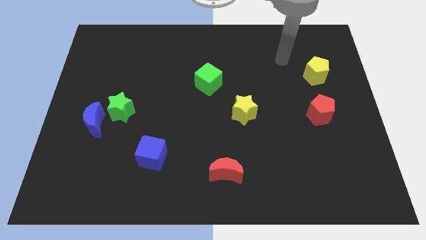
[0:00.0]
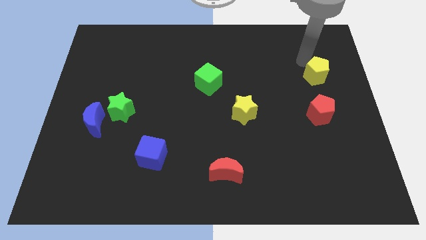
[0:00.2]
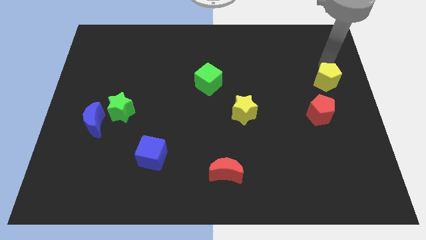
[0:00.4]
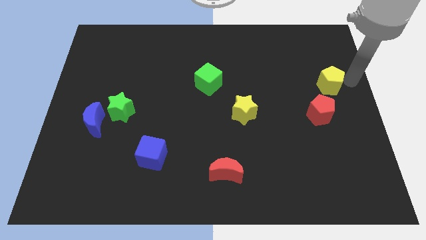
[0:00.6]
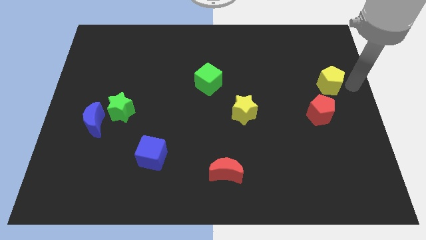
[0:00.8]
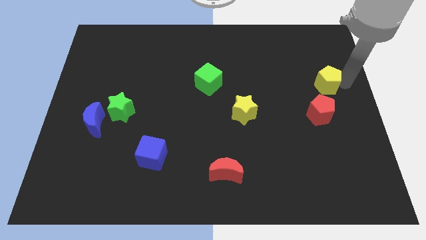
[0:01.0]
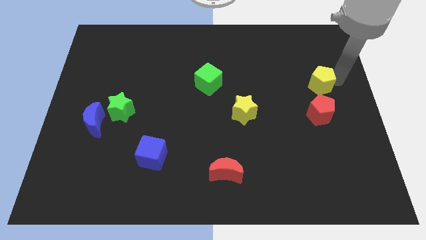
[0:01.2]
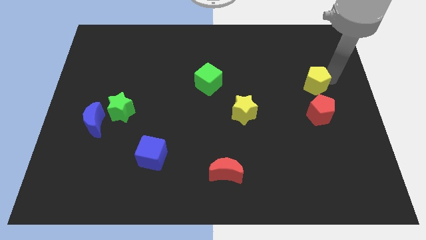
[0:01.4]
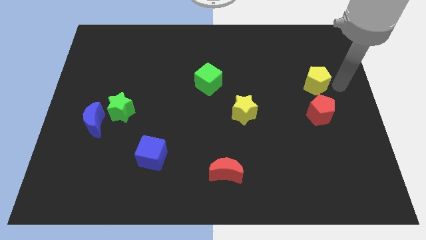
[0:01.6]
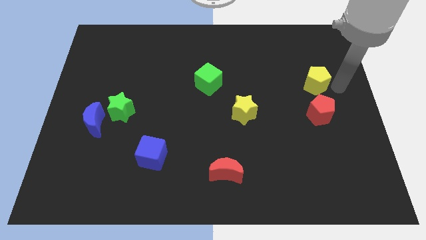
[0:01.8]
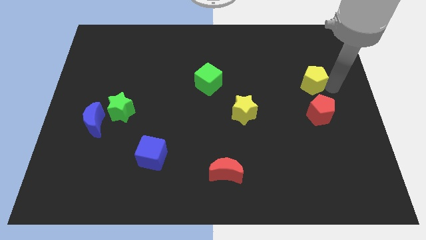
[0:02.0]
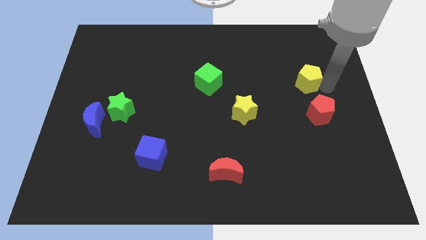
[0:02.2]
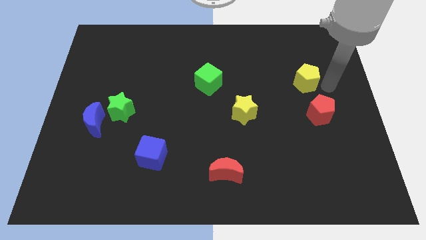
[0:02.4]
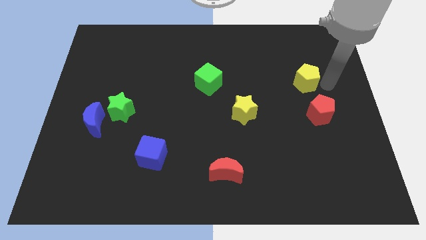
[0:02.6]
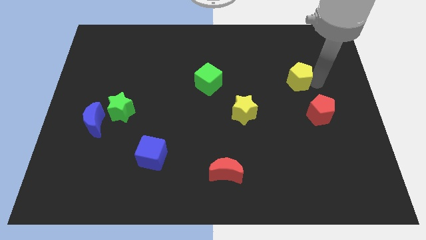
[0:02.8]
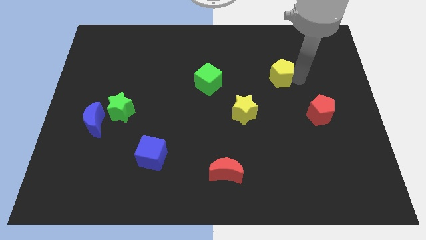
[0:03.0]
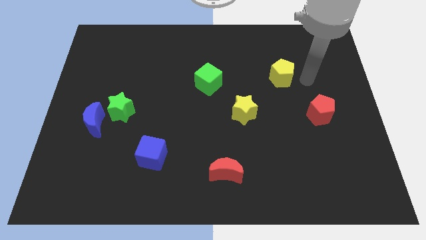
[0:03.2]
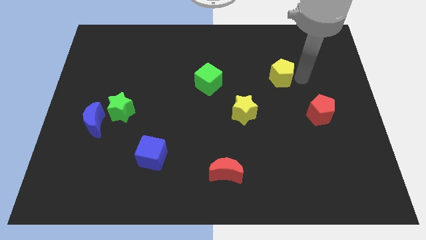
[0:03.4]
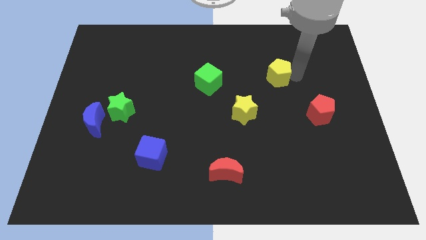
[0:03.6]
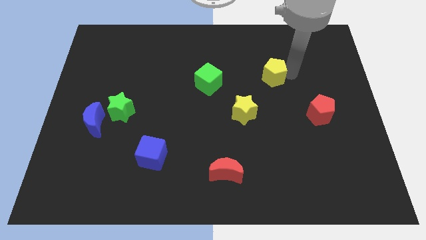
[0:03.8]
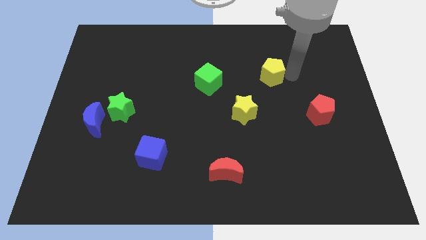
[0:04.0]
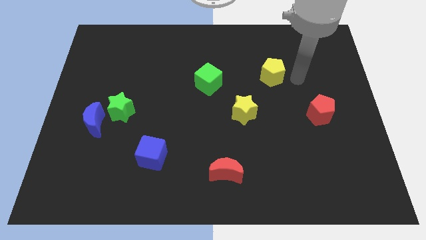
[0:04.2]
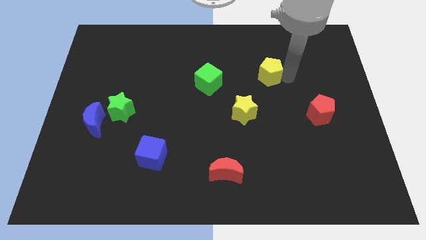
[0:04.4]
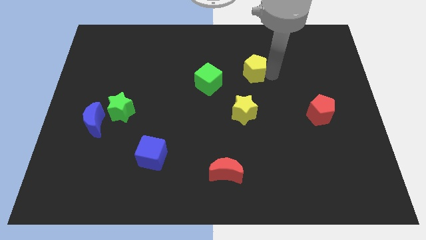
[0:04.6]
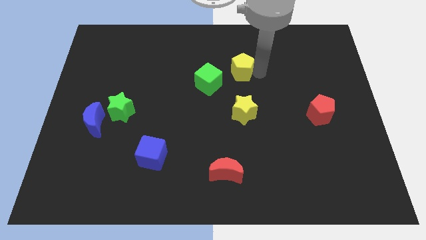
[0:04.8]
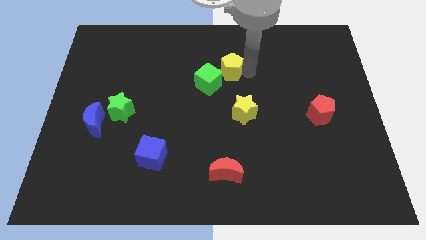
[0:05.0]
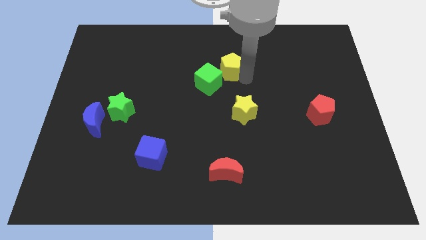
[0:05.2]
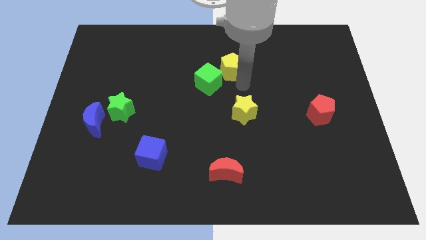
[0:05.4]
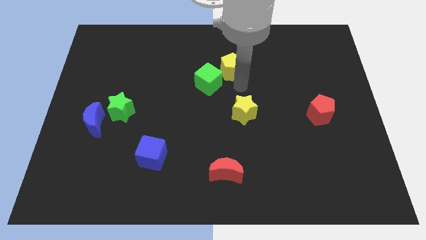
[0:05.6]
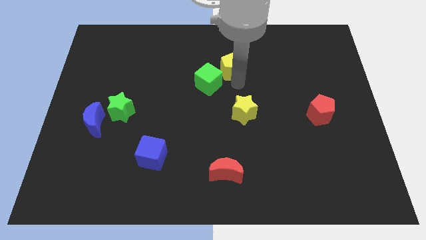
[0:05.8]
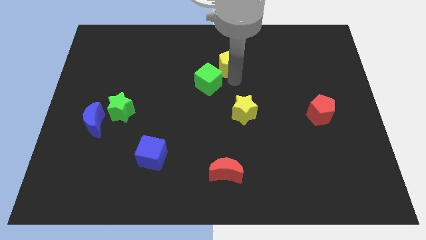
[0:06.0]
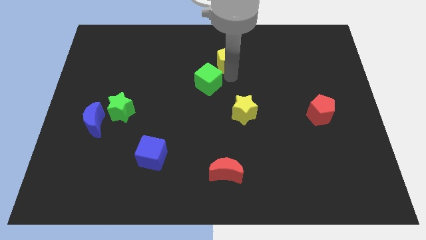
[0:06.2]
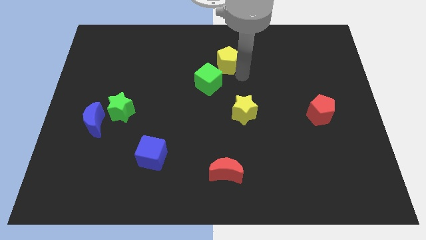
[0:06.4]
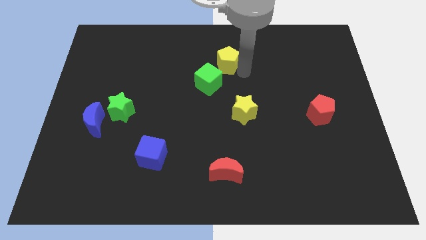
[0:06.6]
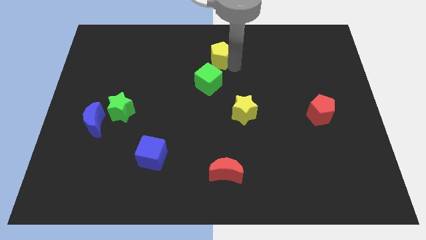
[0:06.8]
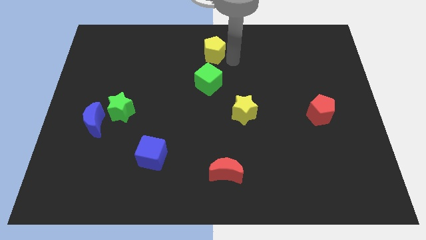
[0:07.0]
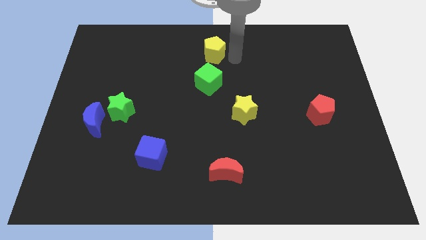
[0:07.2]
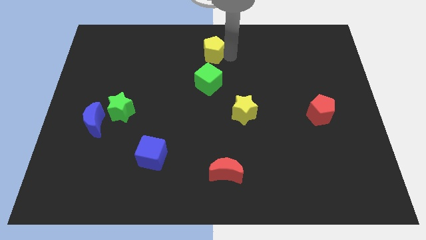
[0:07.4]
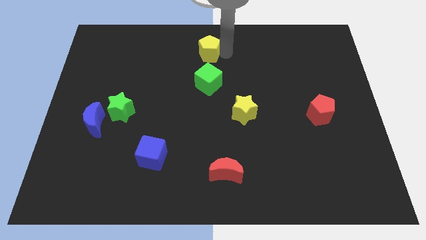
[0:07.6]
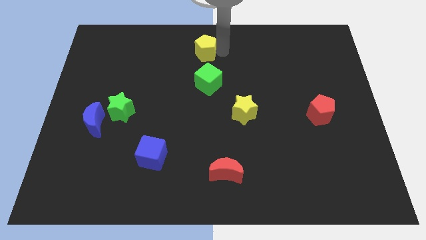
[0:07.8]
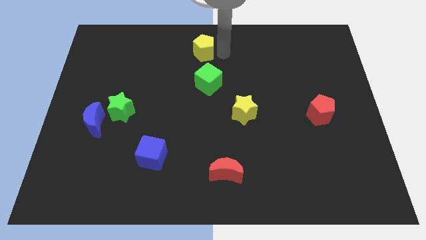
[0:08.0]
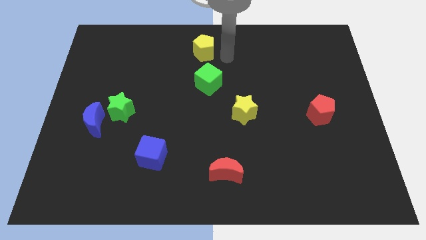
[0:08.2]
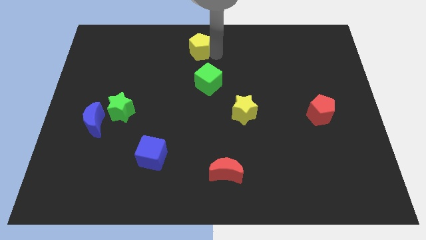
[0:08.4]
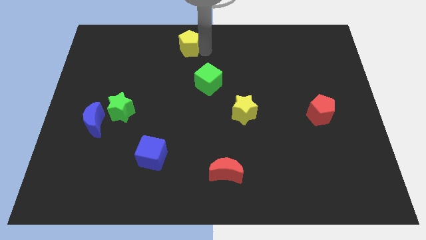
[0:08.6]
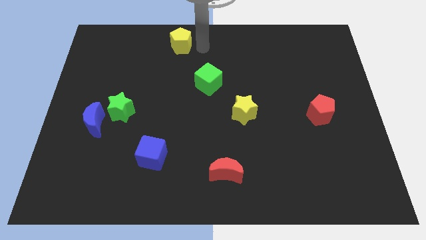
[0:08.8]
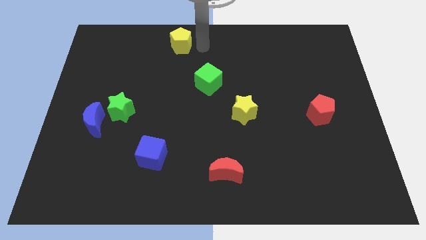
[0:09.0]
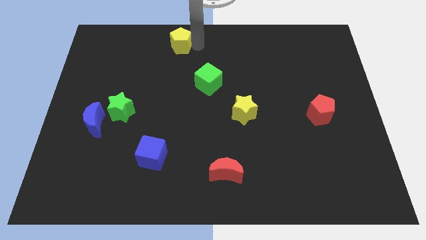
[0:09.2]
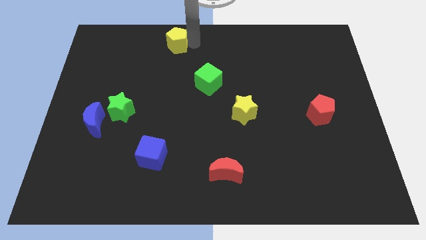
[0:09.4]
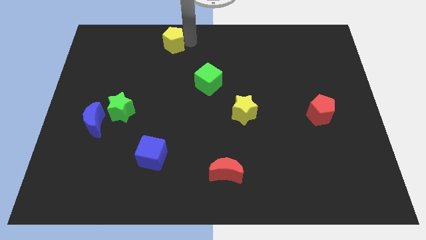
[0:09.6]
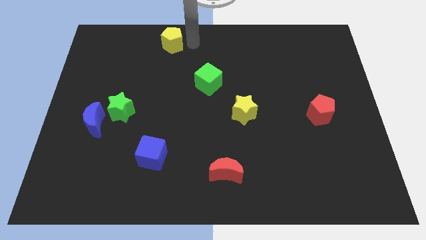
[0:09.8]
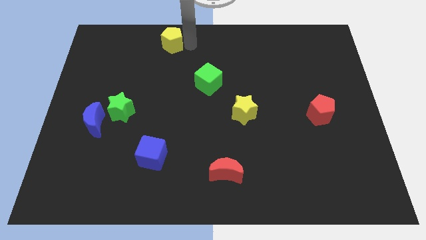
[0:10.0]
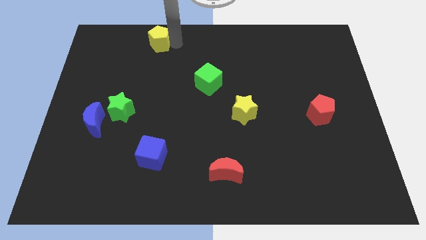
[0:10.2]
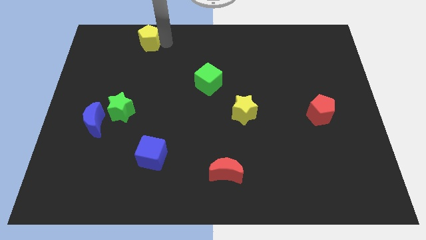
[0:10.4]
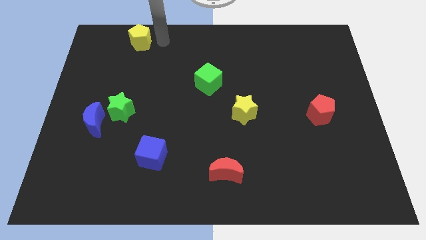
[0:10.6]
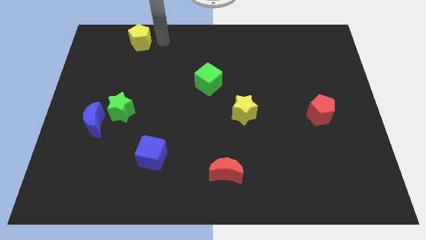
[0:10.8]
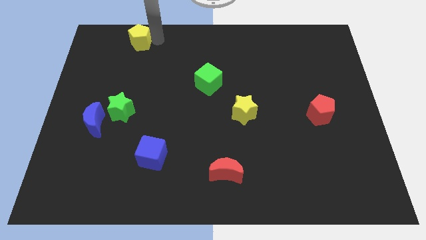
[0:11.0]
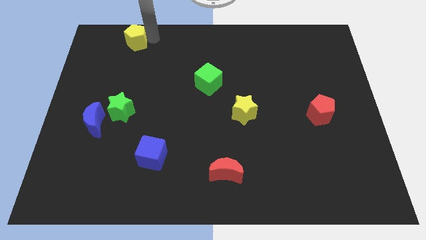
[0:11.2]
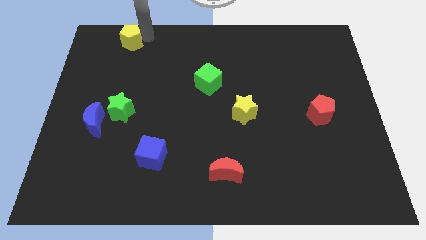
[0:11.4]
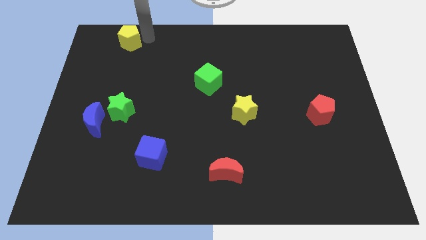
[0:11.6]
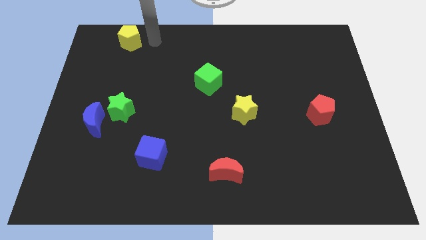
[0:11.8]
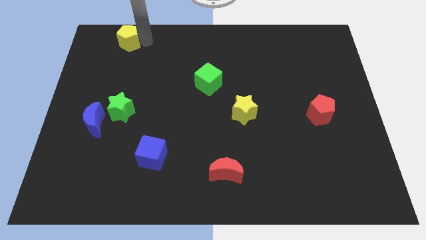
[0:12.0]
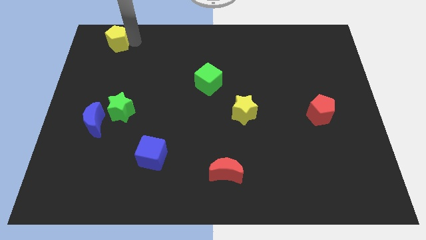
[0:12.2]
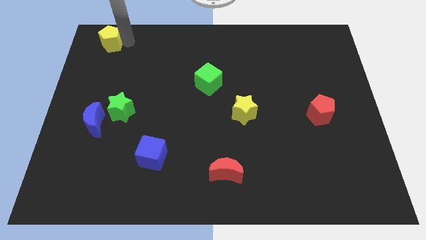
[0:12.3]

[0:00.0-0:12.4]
put the yellow pentagon to the top left corner

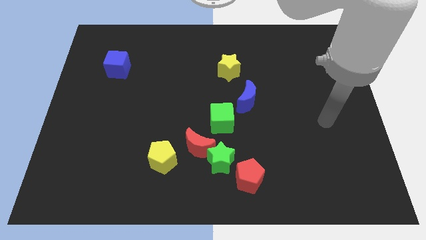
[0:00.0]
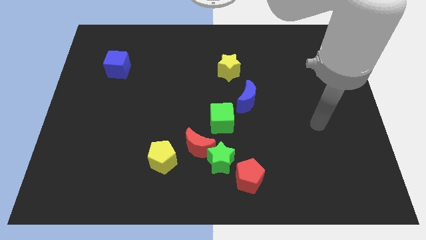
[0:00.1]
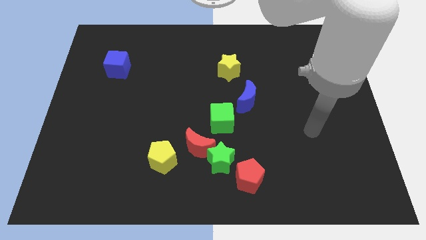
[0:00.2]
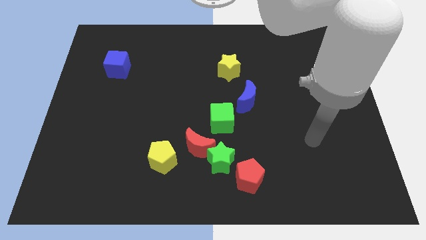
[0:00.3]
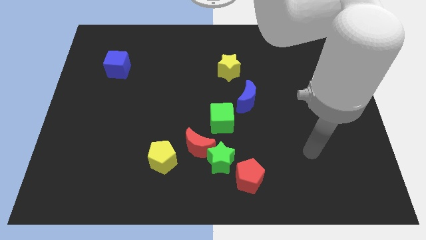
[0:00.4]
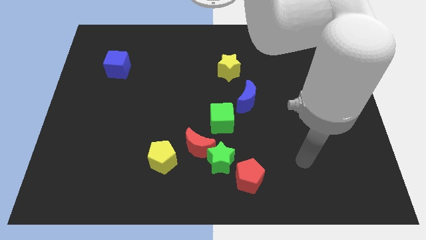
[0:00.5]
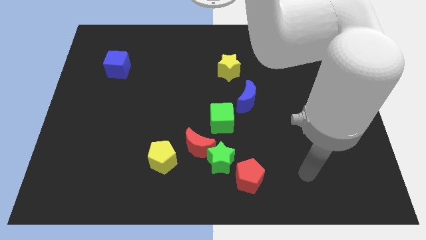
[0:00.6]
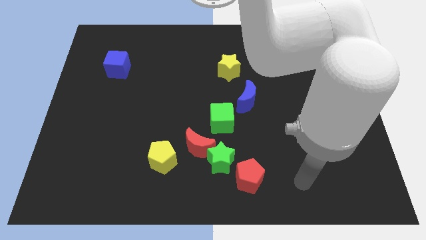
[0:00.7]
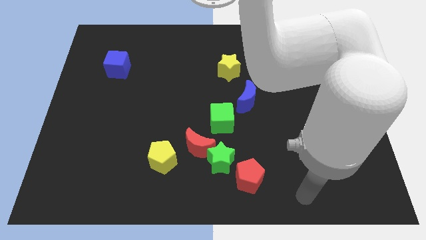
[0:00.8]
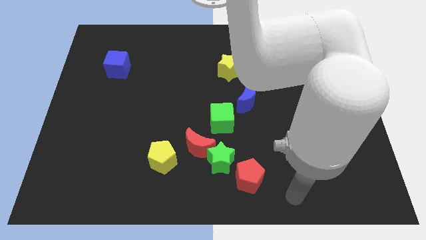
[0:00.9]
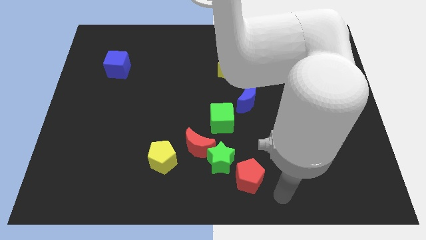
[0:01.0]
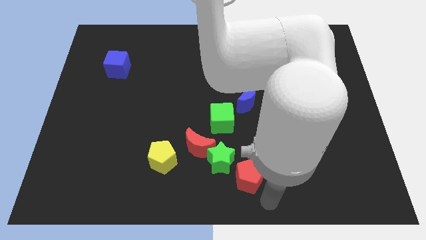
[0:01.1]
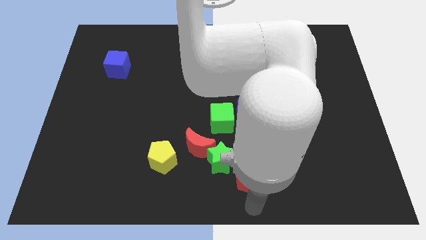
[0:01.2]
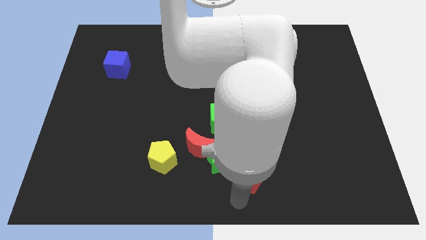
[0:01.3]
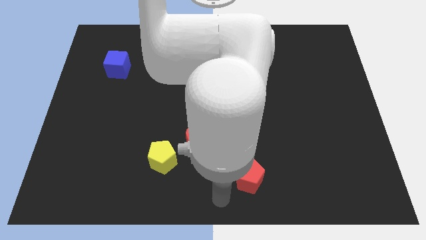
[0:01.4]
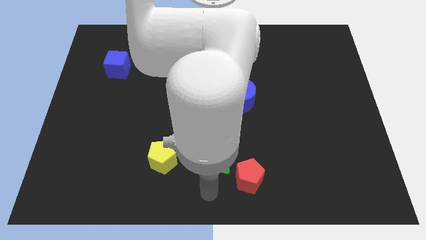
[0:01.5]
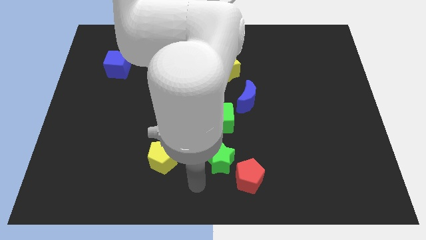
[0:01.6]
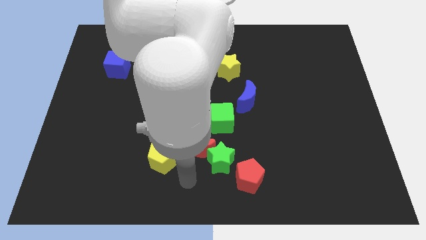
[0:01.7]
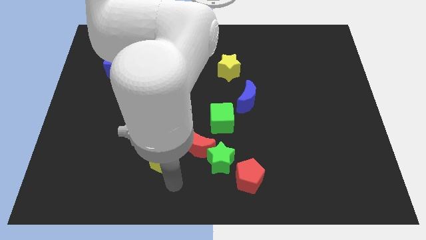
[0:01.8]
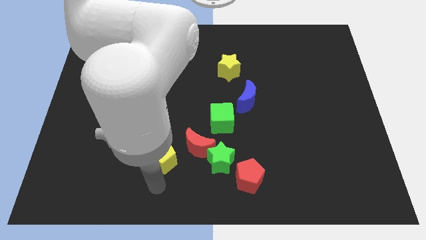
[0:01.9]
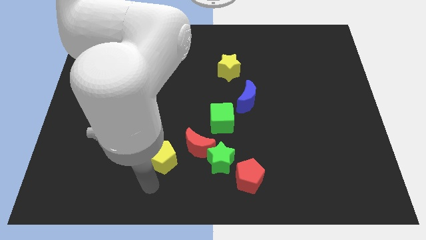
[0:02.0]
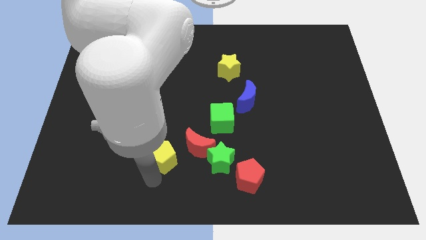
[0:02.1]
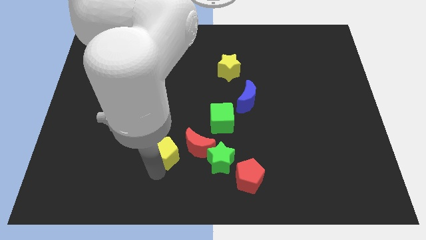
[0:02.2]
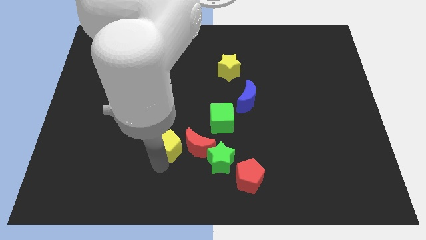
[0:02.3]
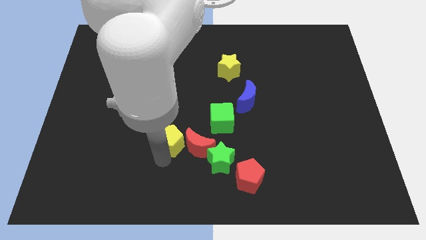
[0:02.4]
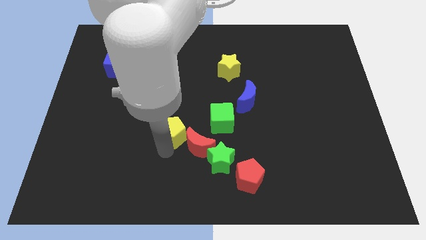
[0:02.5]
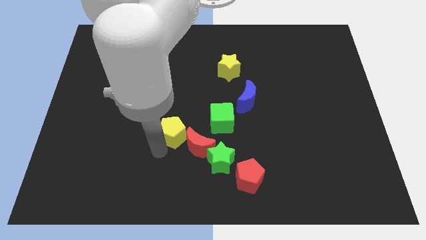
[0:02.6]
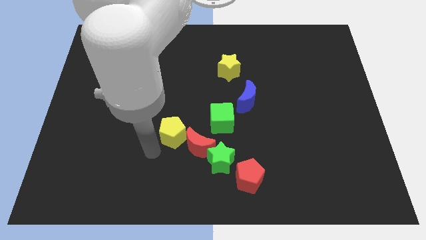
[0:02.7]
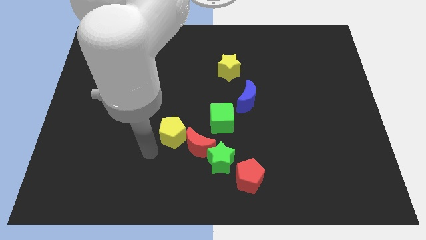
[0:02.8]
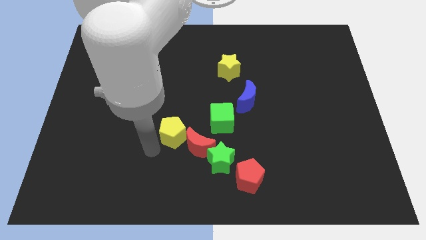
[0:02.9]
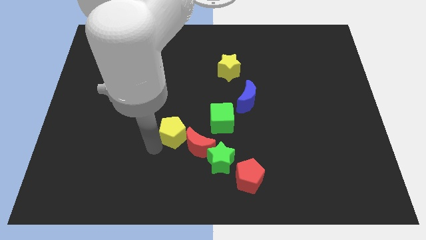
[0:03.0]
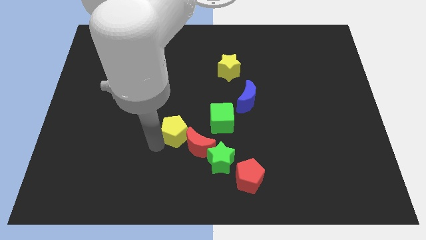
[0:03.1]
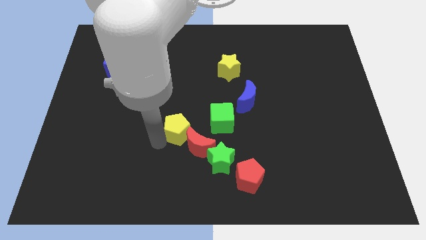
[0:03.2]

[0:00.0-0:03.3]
put the yellow pentagon to the middle
